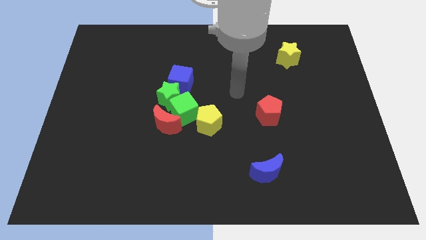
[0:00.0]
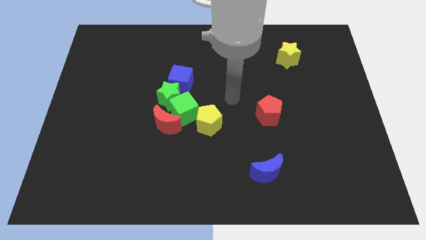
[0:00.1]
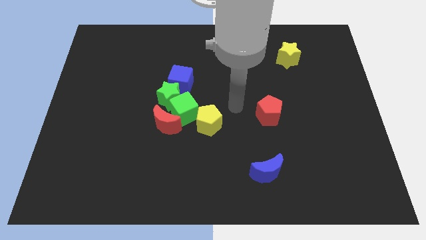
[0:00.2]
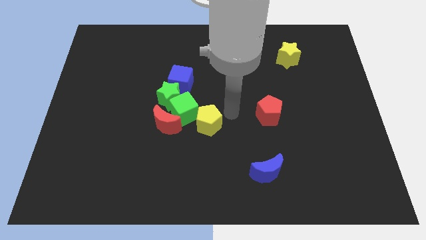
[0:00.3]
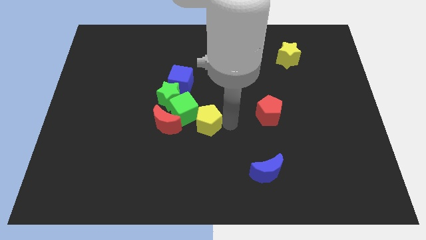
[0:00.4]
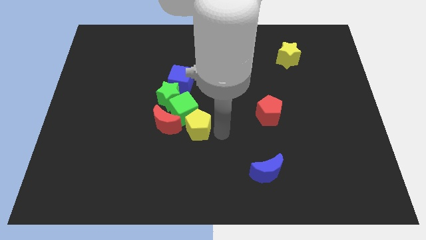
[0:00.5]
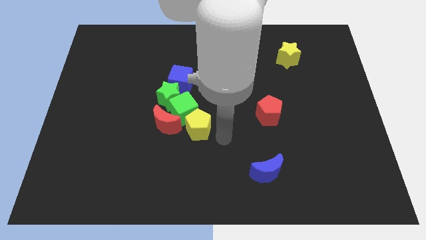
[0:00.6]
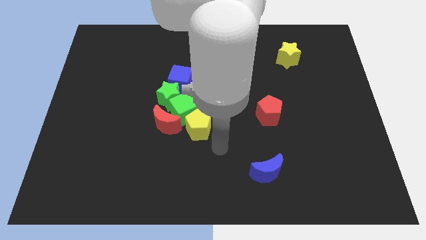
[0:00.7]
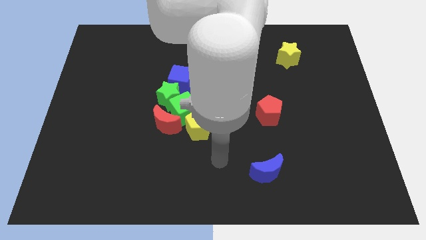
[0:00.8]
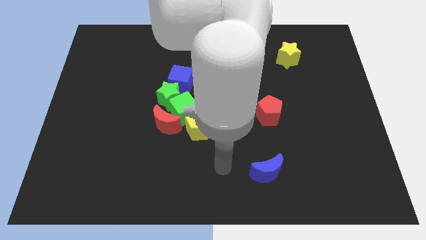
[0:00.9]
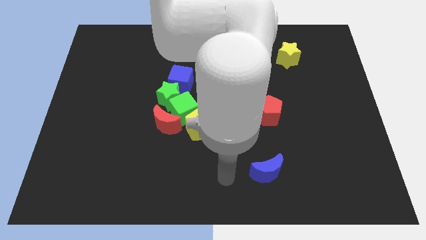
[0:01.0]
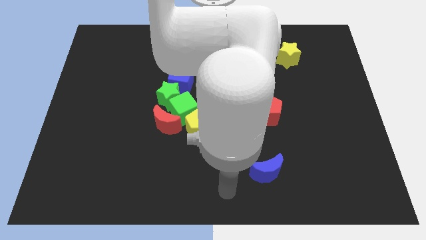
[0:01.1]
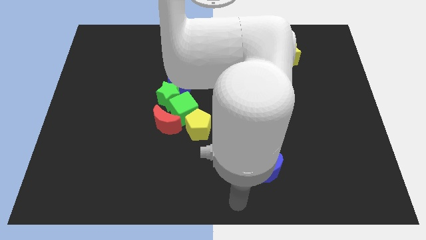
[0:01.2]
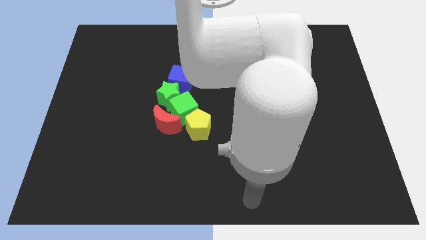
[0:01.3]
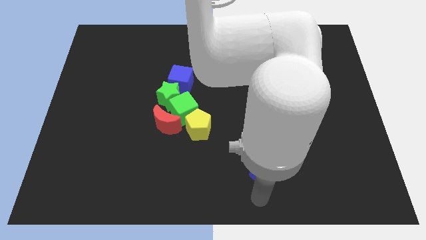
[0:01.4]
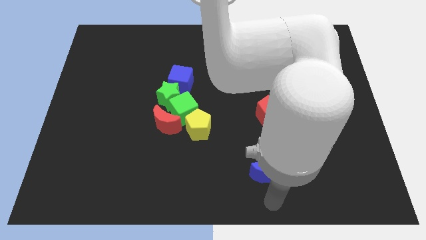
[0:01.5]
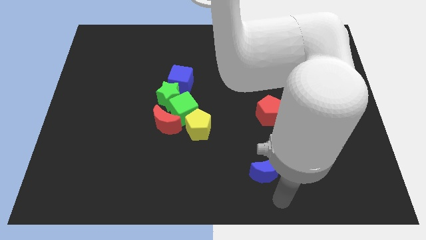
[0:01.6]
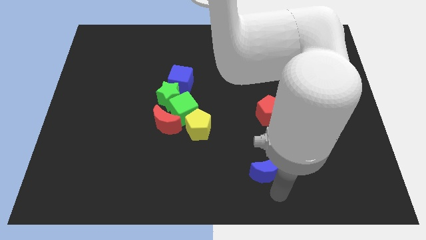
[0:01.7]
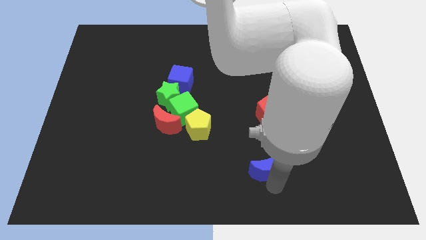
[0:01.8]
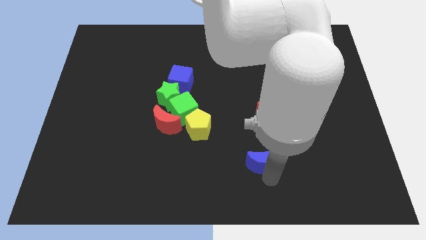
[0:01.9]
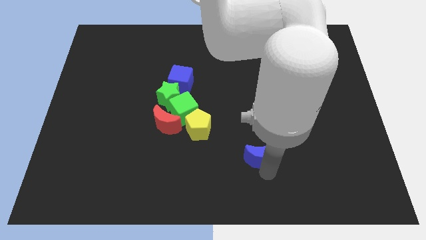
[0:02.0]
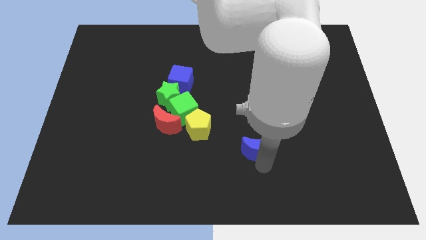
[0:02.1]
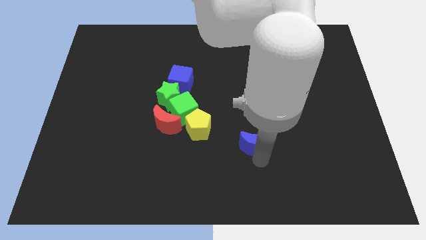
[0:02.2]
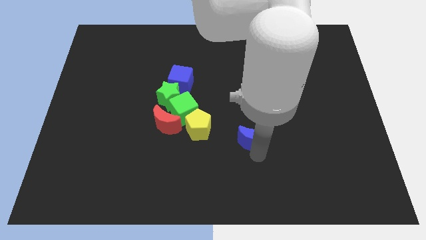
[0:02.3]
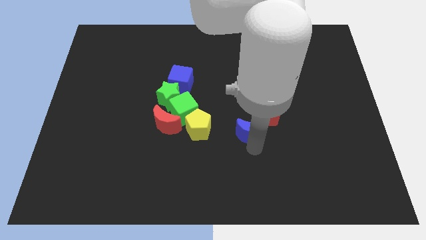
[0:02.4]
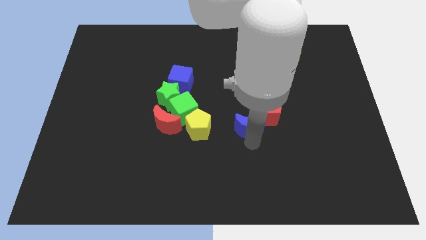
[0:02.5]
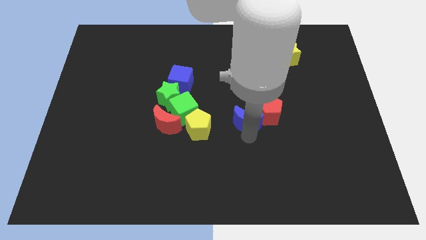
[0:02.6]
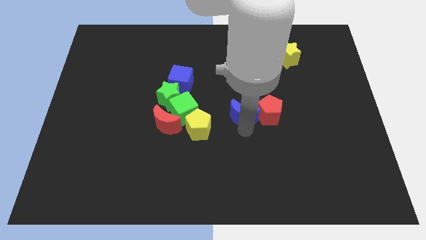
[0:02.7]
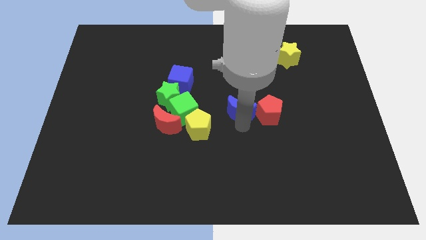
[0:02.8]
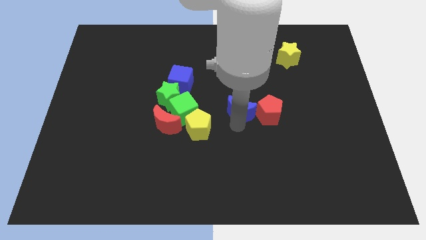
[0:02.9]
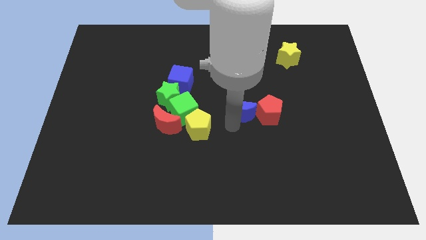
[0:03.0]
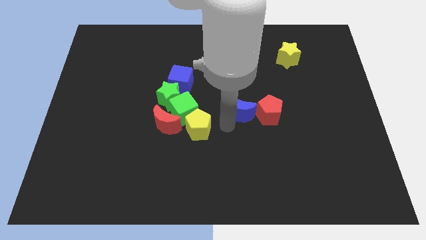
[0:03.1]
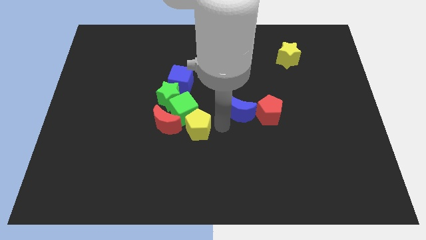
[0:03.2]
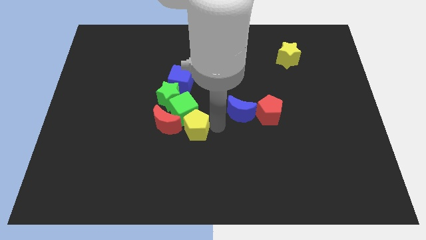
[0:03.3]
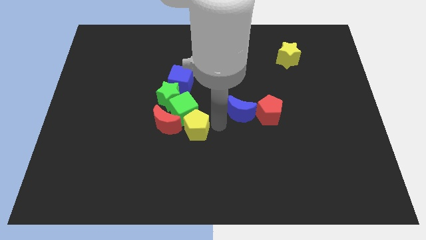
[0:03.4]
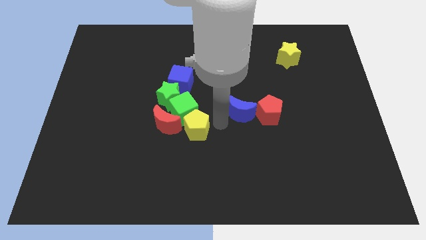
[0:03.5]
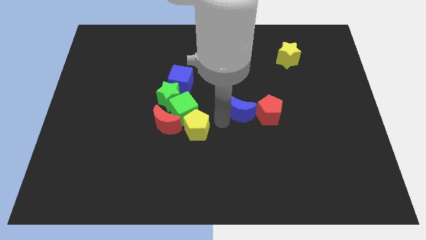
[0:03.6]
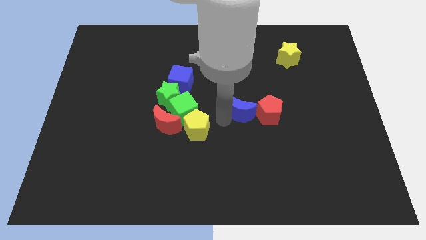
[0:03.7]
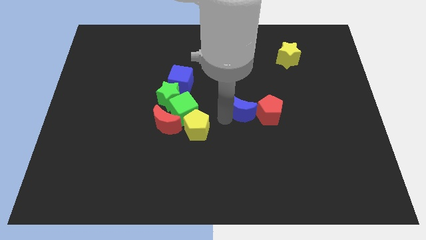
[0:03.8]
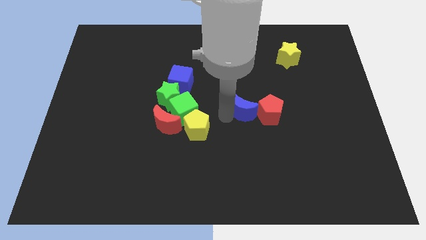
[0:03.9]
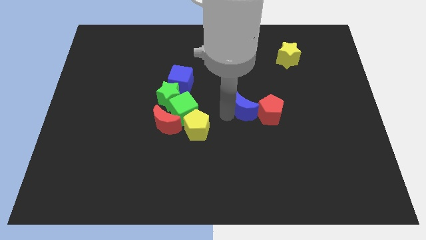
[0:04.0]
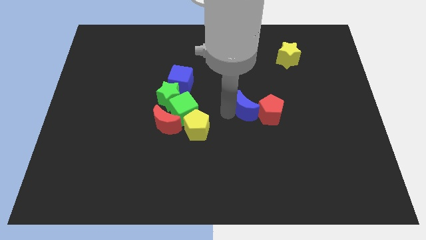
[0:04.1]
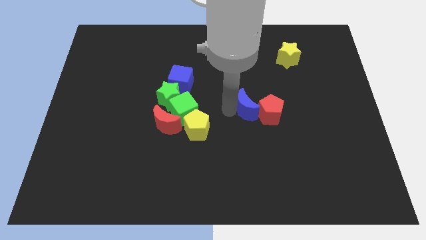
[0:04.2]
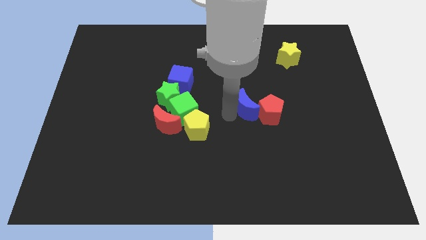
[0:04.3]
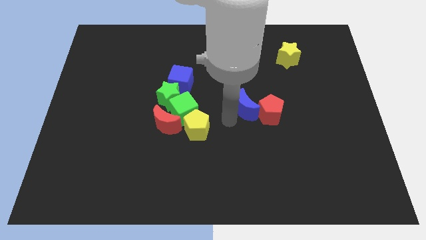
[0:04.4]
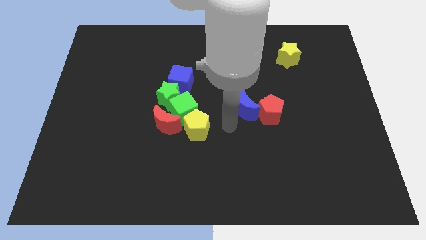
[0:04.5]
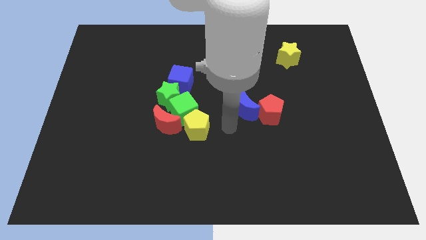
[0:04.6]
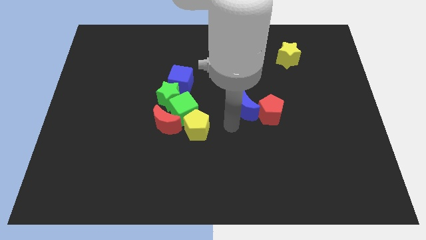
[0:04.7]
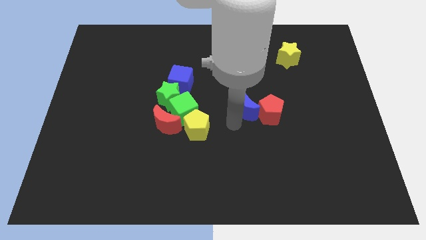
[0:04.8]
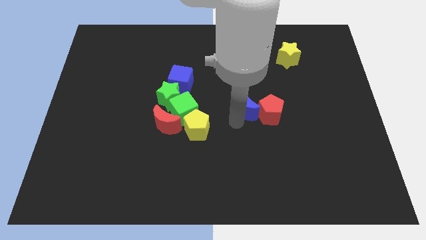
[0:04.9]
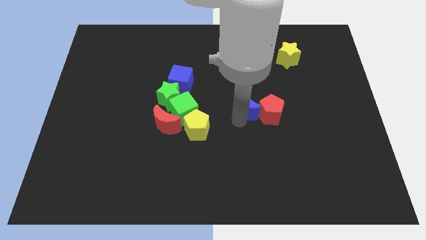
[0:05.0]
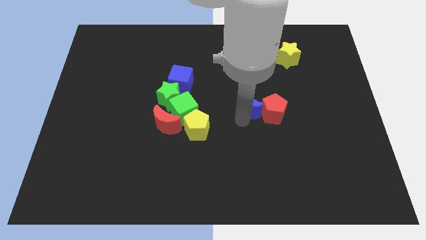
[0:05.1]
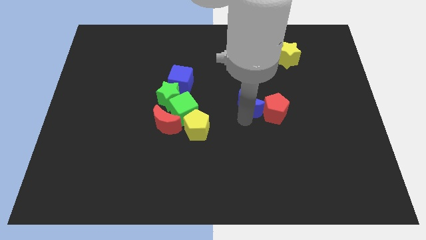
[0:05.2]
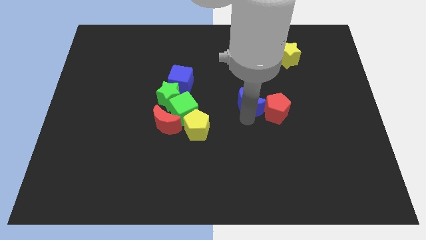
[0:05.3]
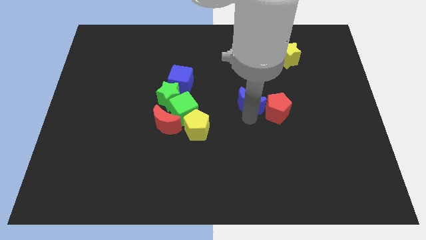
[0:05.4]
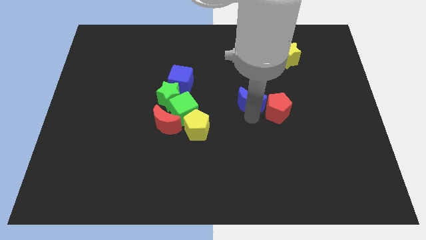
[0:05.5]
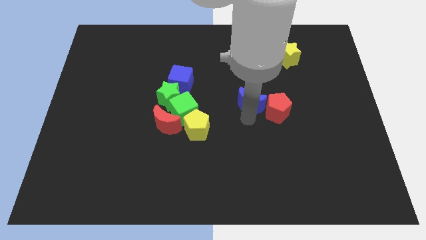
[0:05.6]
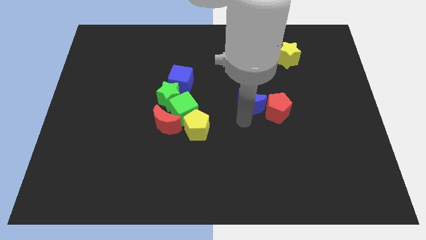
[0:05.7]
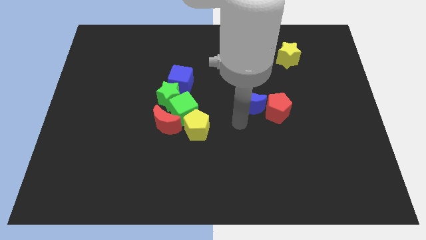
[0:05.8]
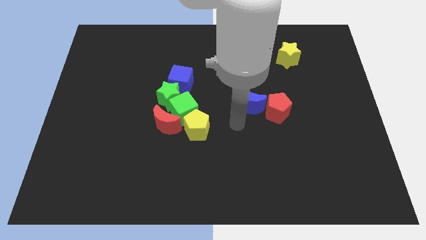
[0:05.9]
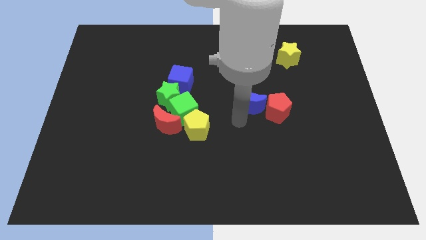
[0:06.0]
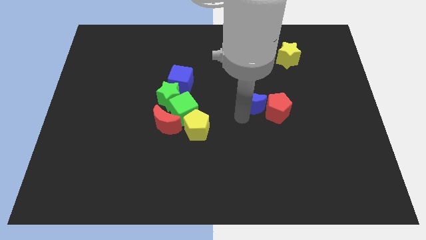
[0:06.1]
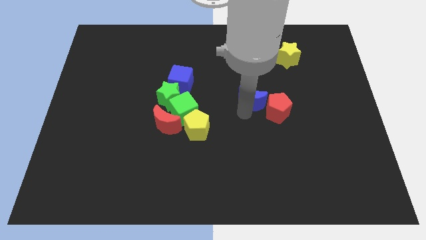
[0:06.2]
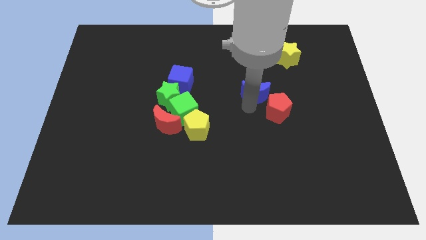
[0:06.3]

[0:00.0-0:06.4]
push the blue moon upwards

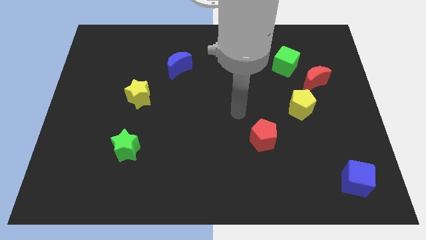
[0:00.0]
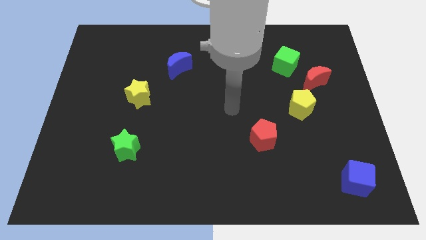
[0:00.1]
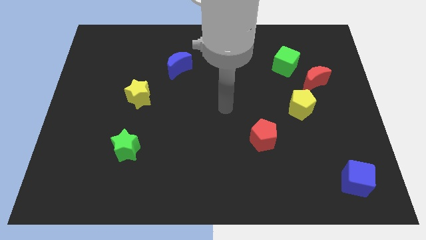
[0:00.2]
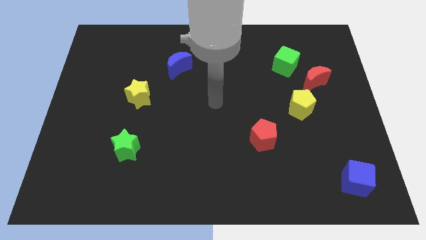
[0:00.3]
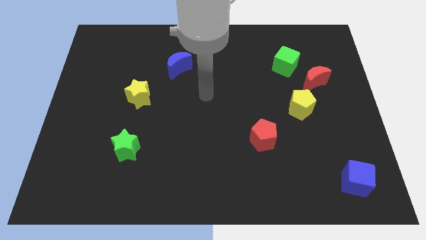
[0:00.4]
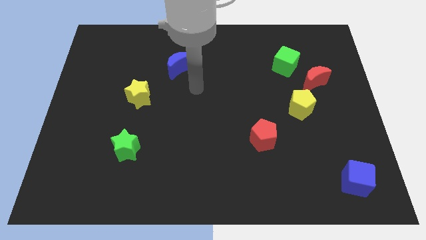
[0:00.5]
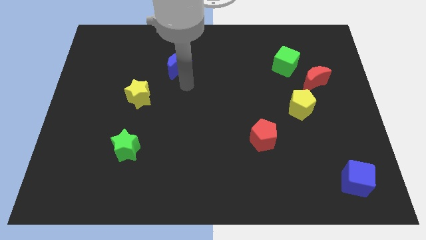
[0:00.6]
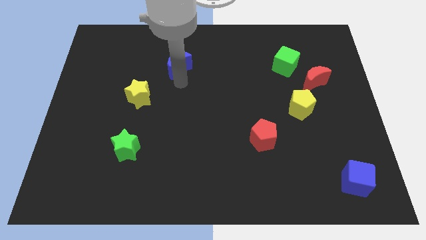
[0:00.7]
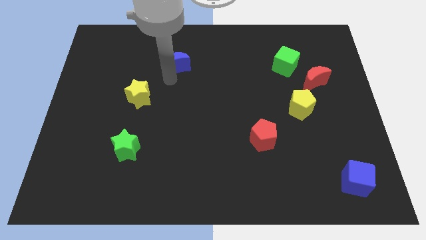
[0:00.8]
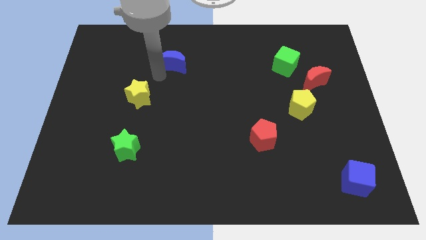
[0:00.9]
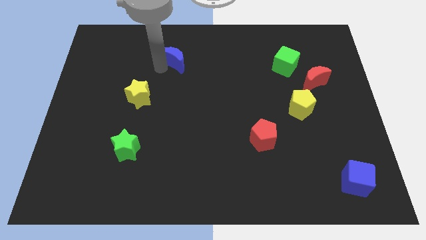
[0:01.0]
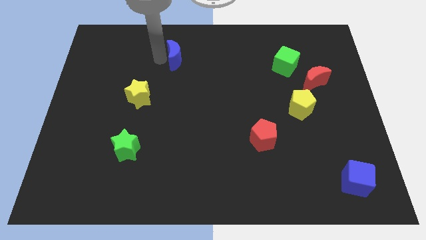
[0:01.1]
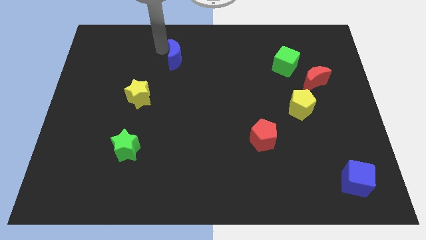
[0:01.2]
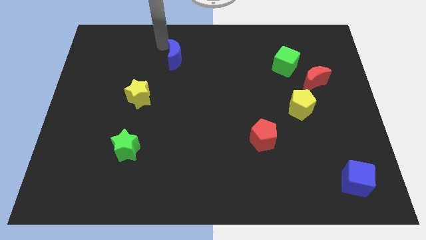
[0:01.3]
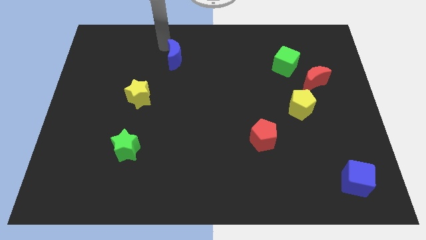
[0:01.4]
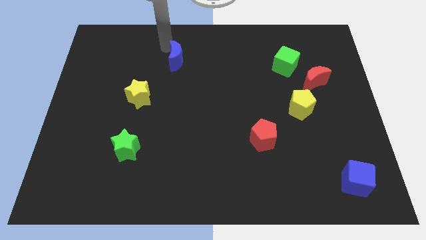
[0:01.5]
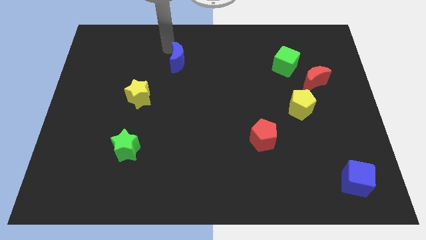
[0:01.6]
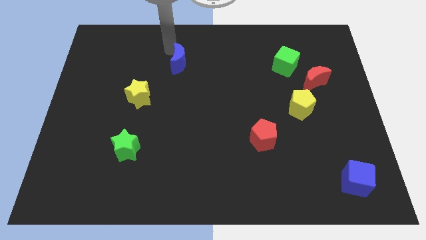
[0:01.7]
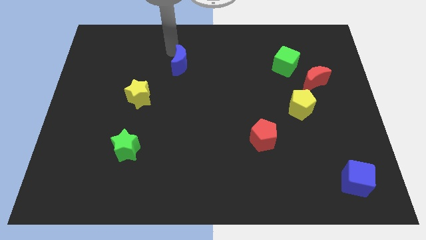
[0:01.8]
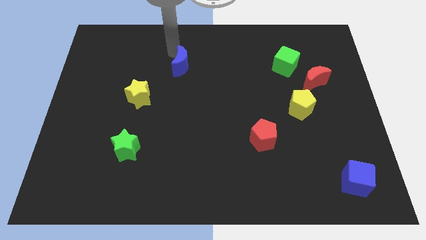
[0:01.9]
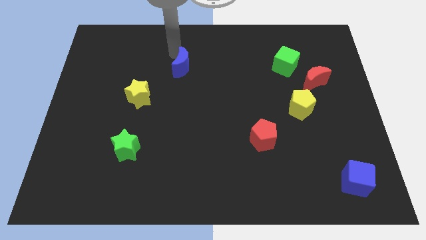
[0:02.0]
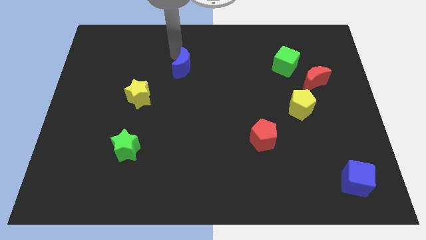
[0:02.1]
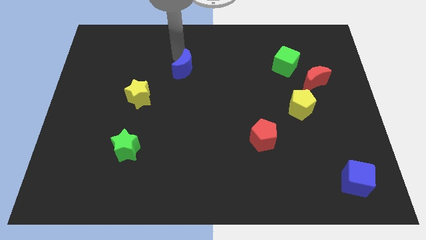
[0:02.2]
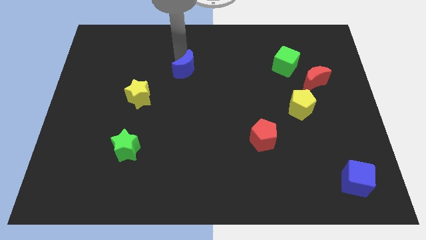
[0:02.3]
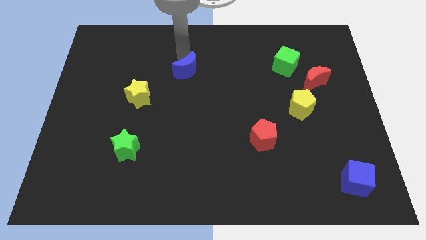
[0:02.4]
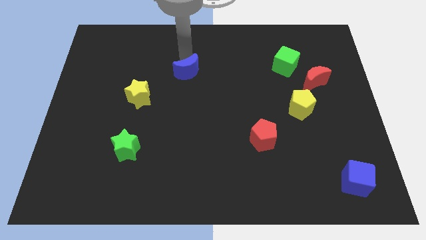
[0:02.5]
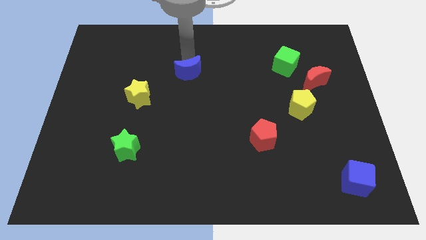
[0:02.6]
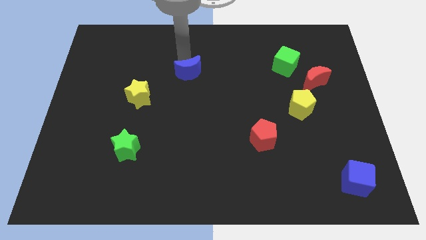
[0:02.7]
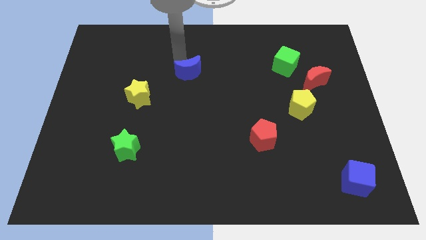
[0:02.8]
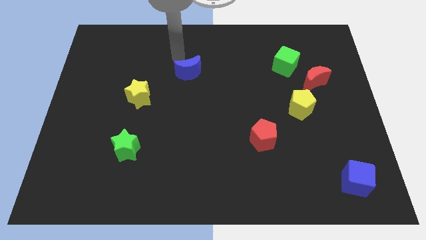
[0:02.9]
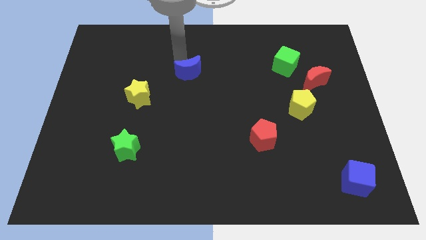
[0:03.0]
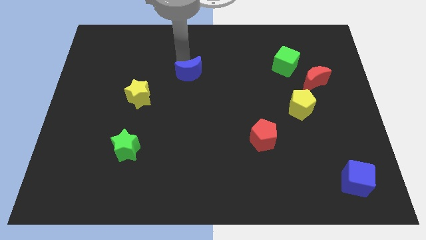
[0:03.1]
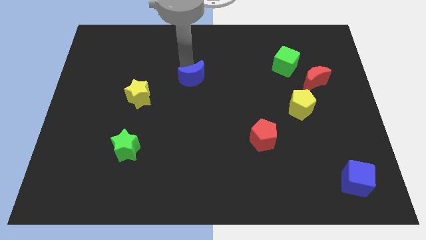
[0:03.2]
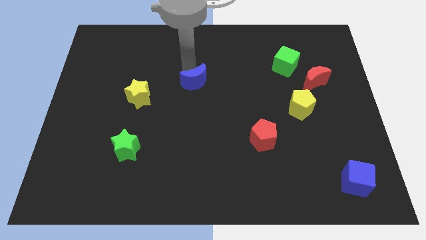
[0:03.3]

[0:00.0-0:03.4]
slightly push the blue moon down and to the right
